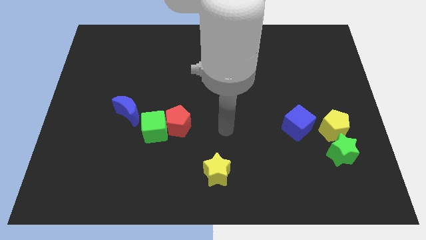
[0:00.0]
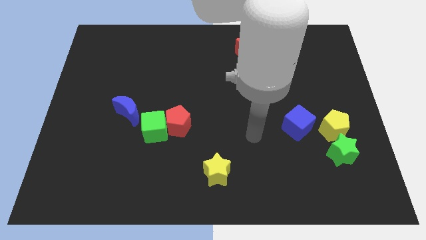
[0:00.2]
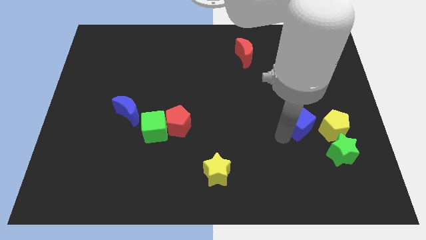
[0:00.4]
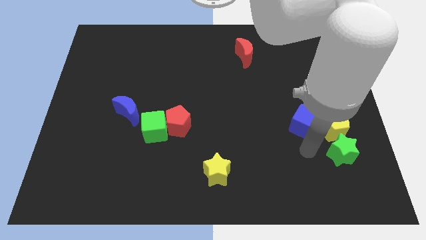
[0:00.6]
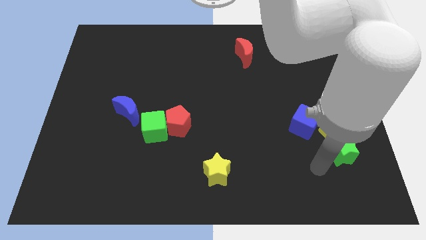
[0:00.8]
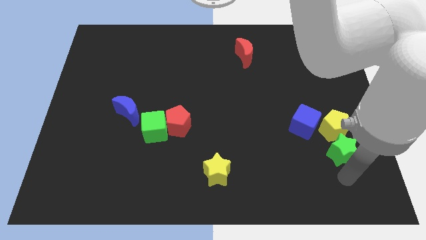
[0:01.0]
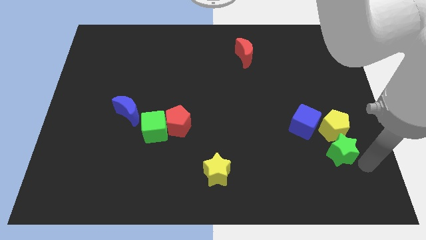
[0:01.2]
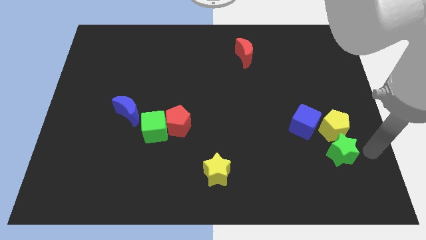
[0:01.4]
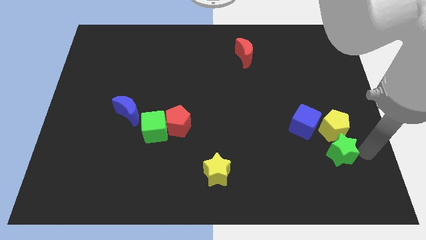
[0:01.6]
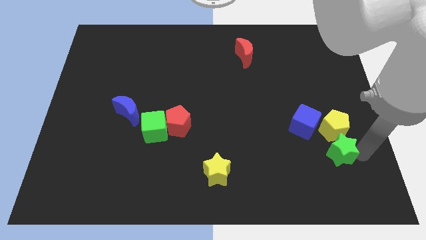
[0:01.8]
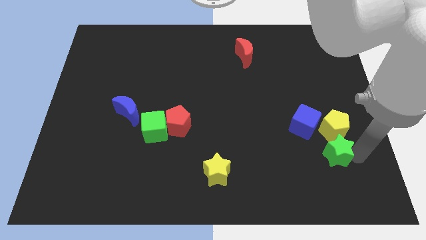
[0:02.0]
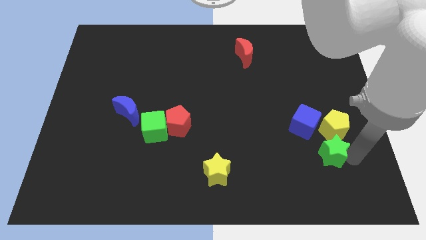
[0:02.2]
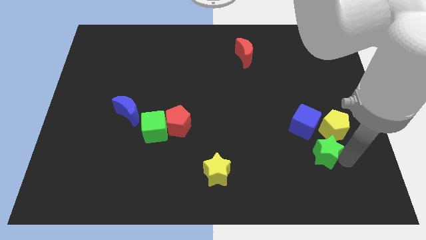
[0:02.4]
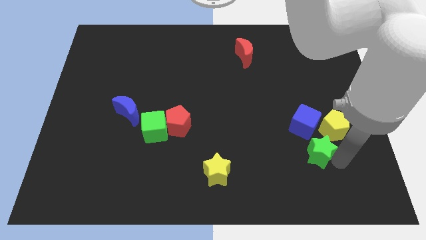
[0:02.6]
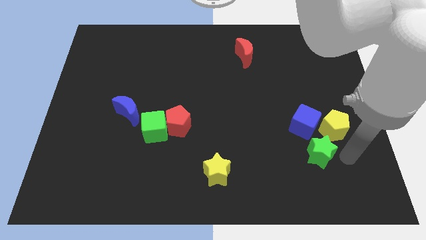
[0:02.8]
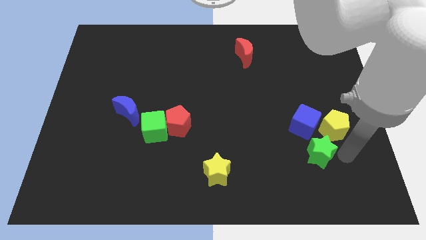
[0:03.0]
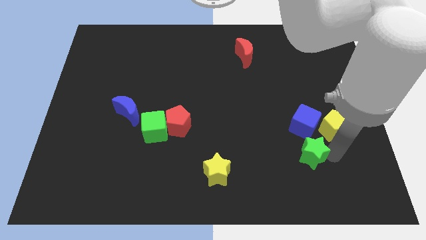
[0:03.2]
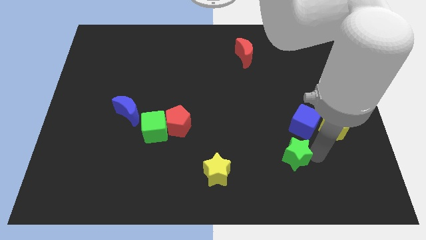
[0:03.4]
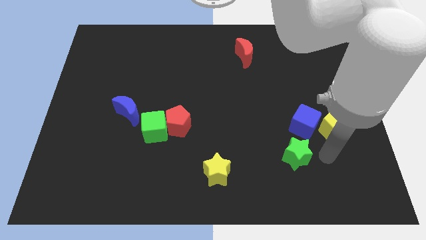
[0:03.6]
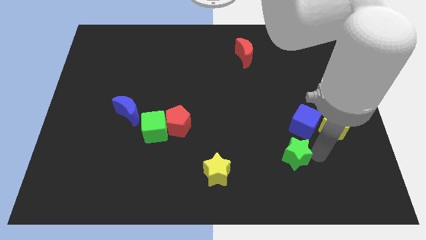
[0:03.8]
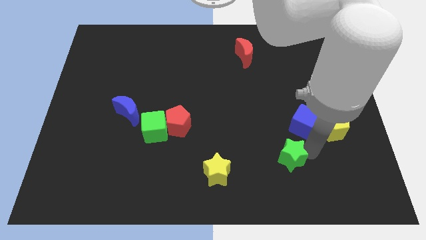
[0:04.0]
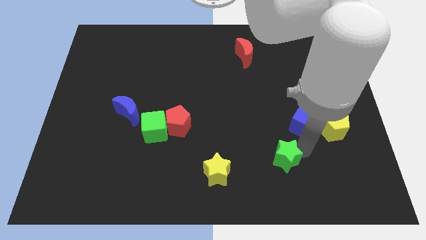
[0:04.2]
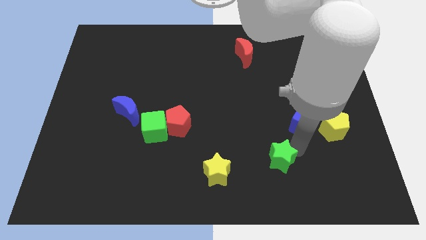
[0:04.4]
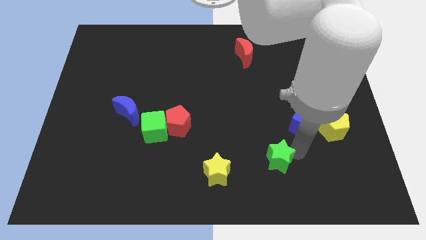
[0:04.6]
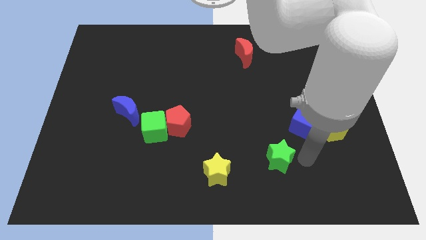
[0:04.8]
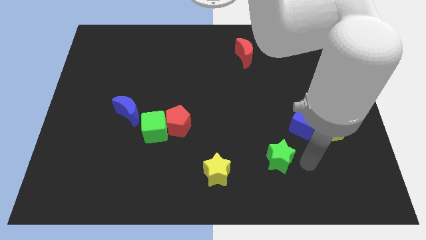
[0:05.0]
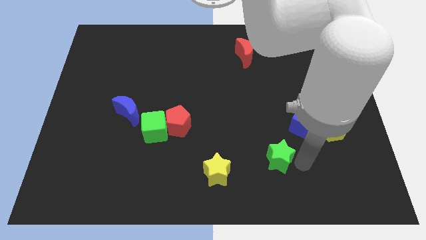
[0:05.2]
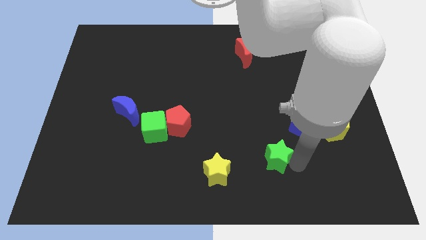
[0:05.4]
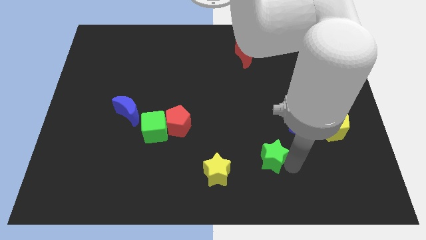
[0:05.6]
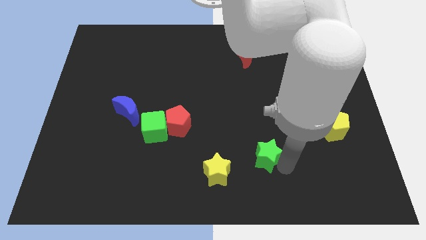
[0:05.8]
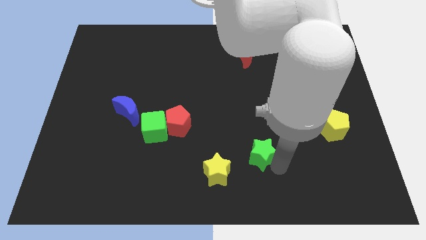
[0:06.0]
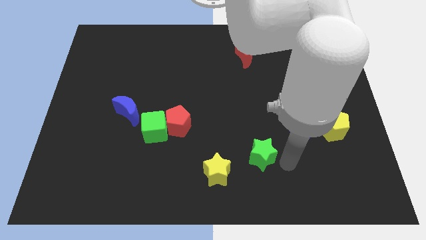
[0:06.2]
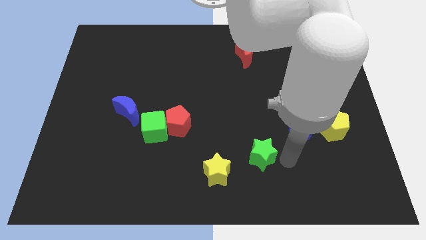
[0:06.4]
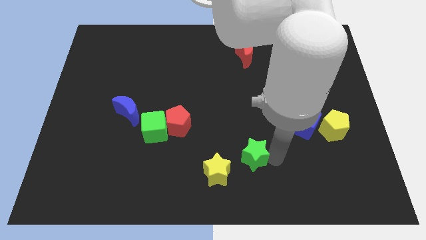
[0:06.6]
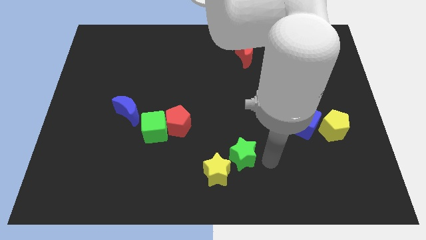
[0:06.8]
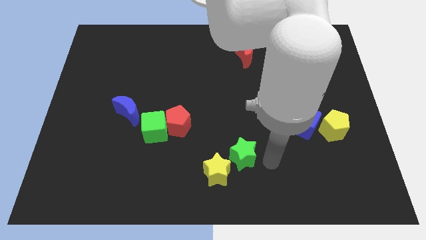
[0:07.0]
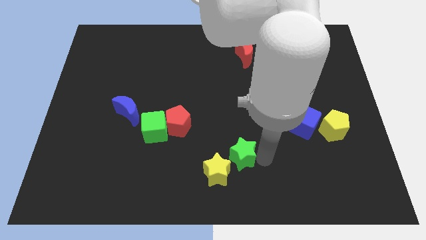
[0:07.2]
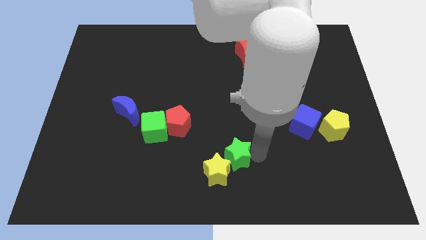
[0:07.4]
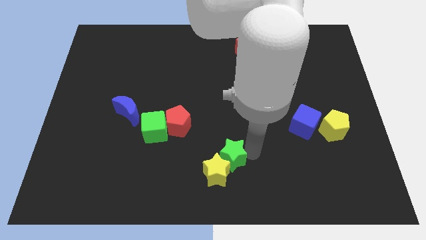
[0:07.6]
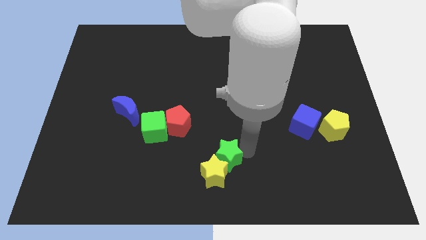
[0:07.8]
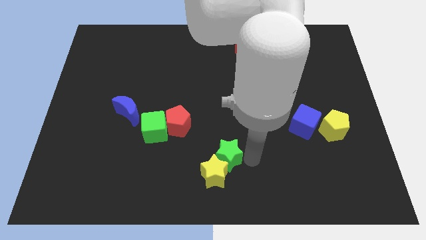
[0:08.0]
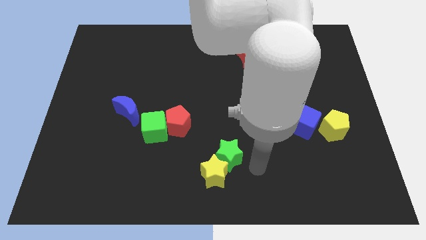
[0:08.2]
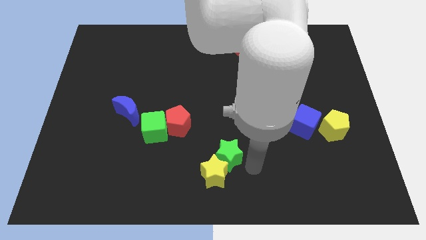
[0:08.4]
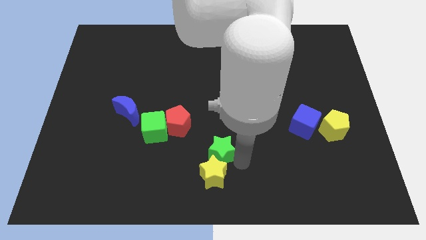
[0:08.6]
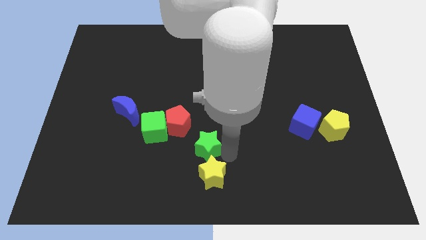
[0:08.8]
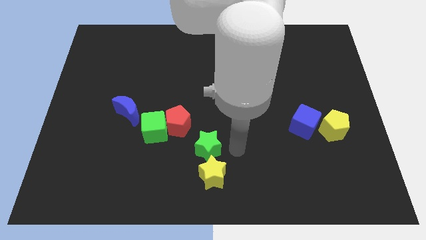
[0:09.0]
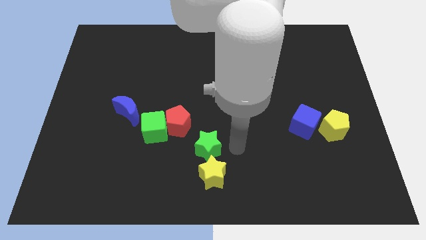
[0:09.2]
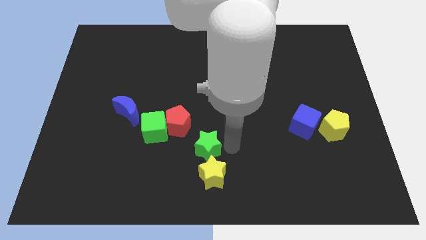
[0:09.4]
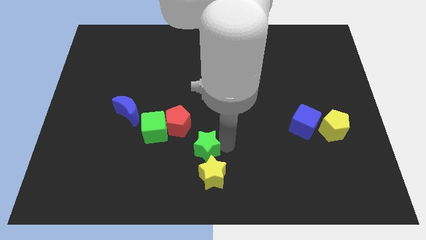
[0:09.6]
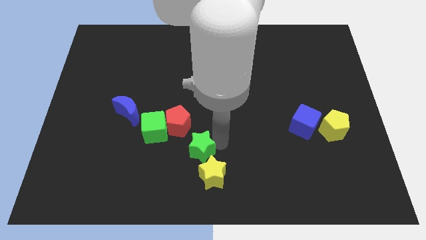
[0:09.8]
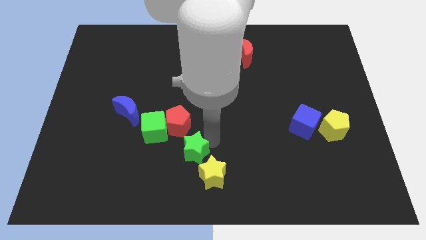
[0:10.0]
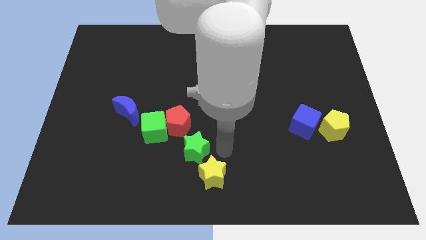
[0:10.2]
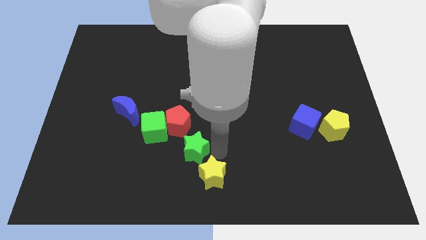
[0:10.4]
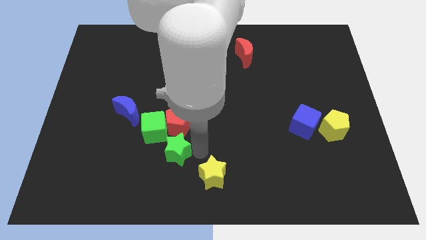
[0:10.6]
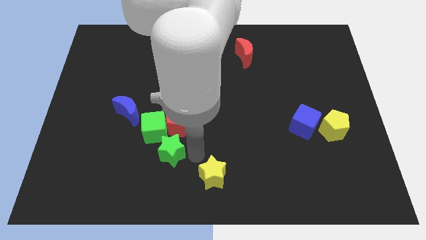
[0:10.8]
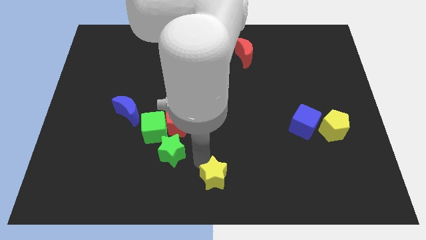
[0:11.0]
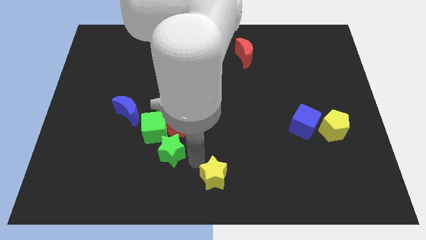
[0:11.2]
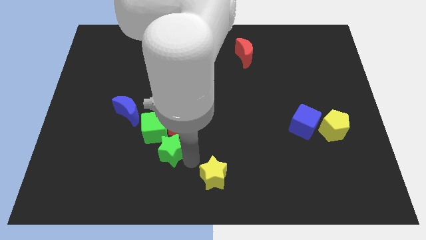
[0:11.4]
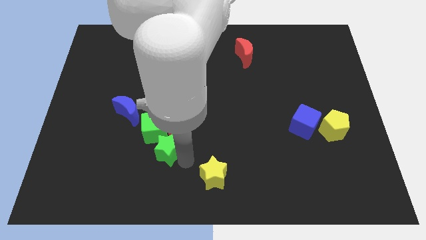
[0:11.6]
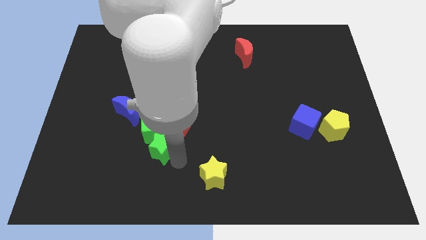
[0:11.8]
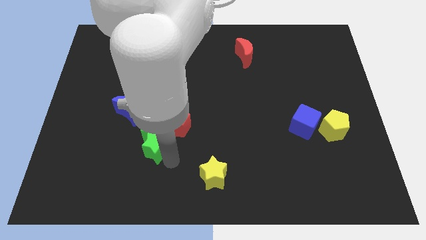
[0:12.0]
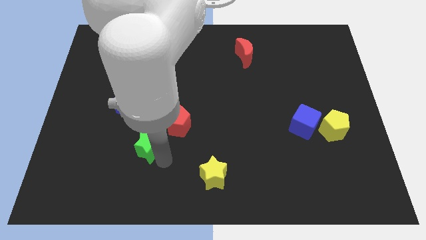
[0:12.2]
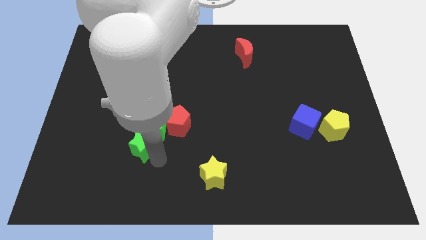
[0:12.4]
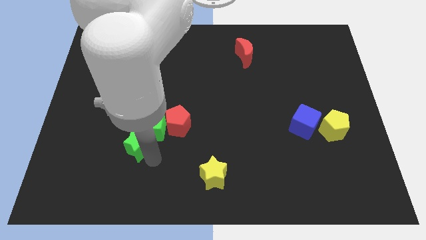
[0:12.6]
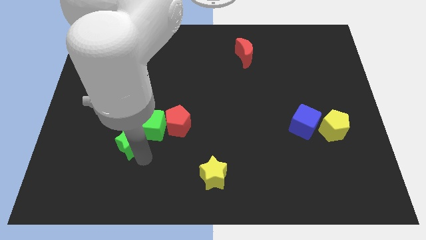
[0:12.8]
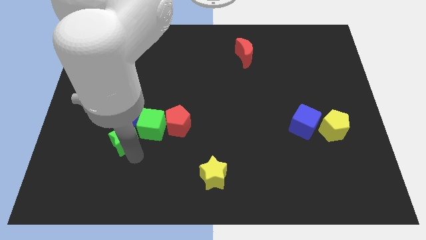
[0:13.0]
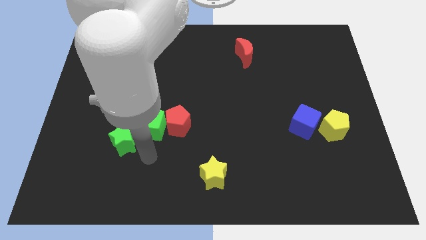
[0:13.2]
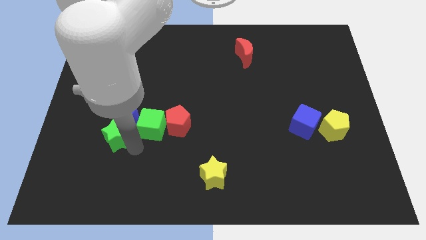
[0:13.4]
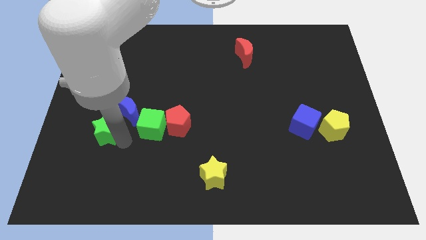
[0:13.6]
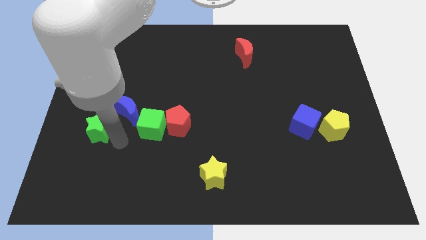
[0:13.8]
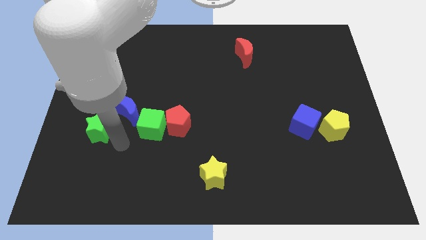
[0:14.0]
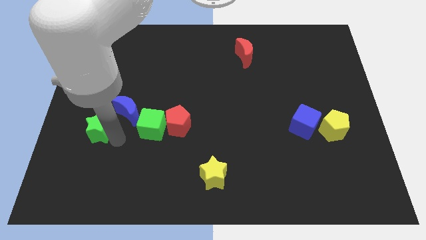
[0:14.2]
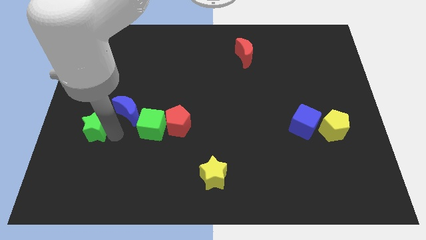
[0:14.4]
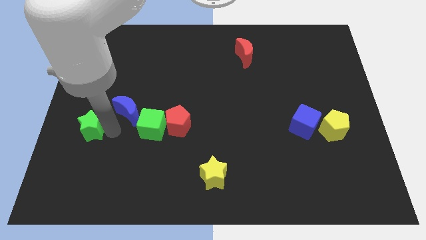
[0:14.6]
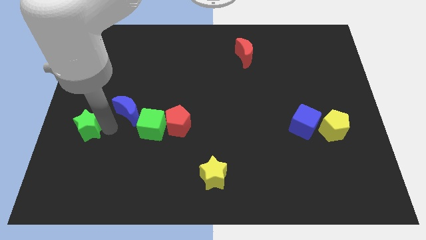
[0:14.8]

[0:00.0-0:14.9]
put the green star to the center left
